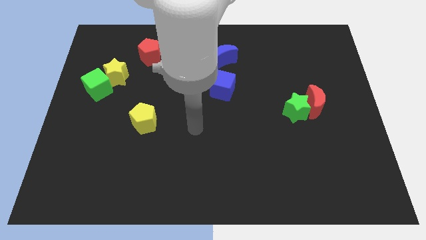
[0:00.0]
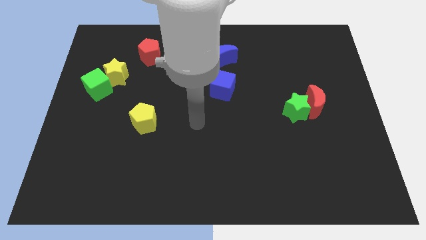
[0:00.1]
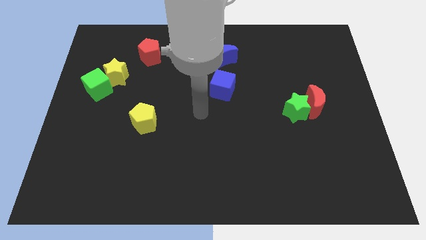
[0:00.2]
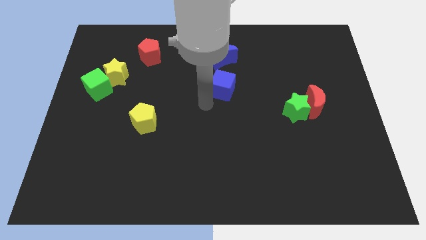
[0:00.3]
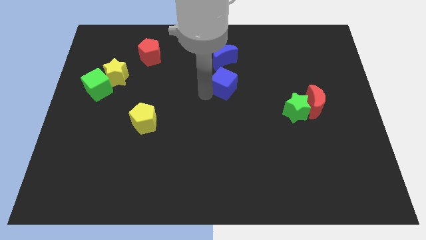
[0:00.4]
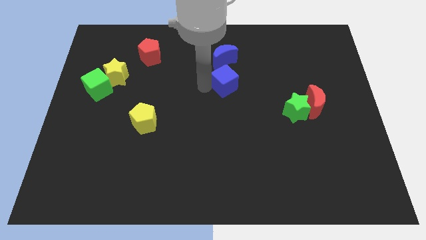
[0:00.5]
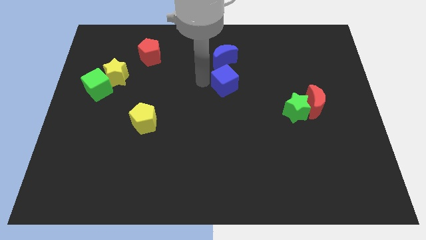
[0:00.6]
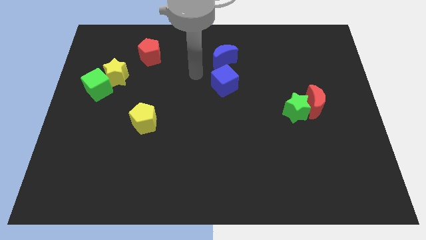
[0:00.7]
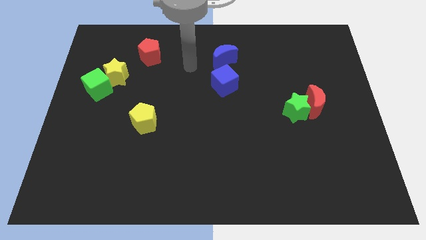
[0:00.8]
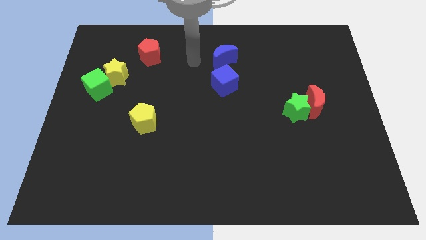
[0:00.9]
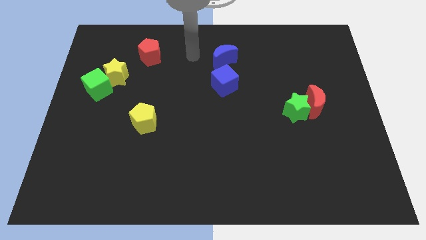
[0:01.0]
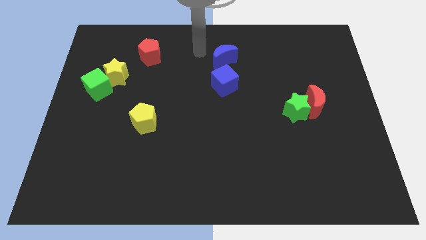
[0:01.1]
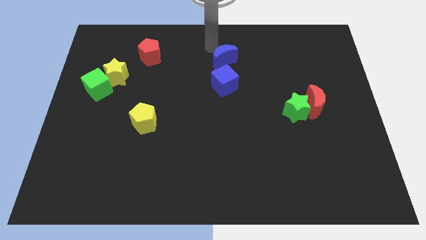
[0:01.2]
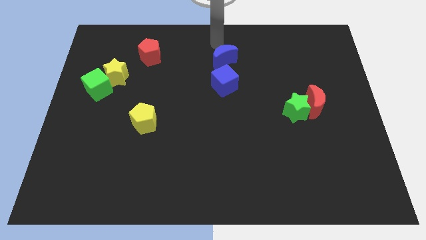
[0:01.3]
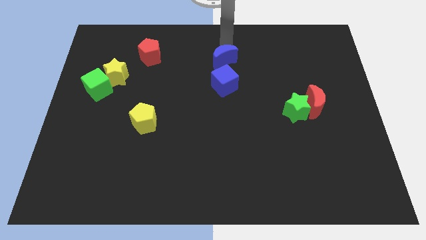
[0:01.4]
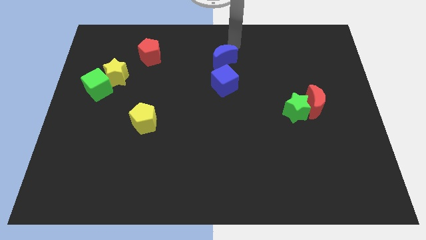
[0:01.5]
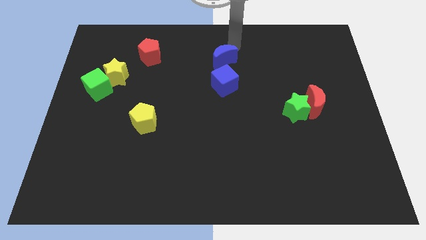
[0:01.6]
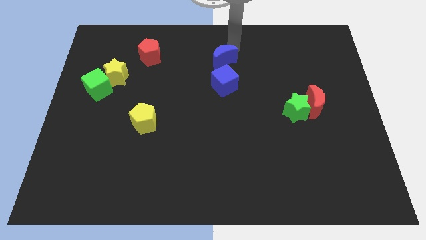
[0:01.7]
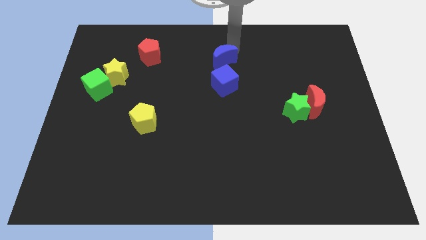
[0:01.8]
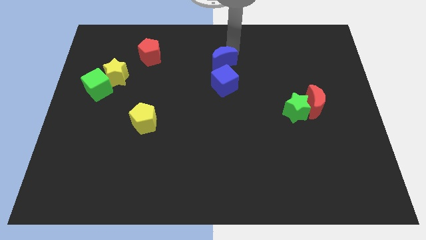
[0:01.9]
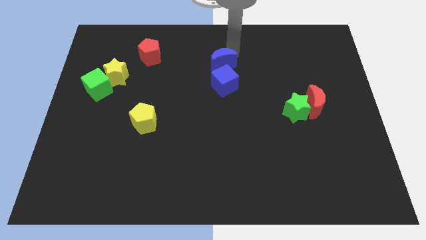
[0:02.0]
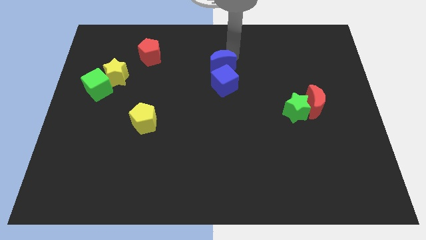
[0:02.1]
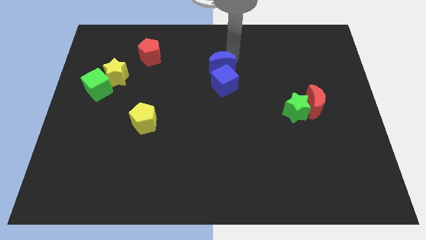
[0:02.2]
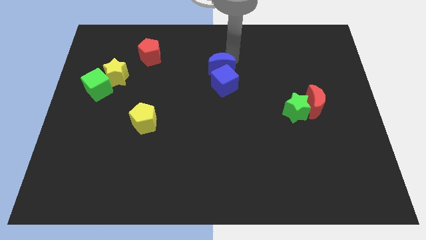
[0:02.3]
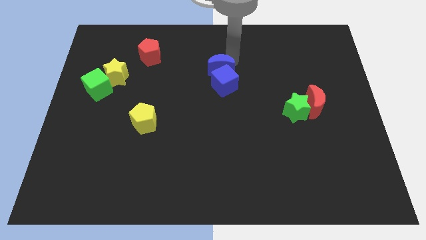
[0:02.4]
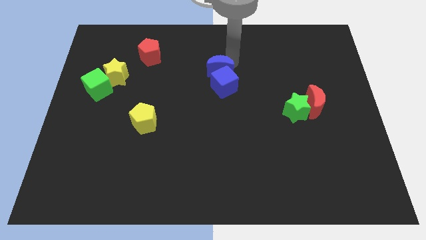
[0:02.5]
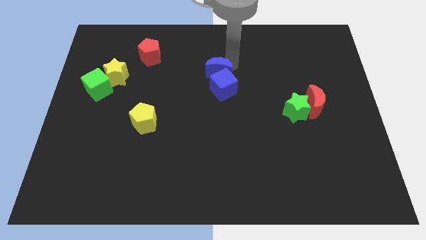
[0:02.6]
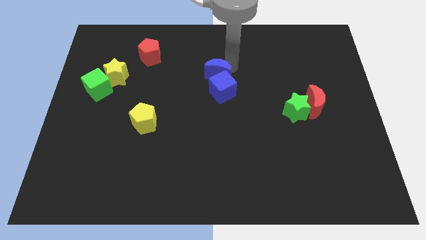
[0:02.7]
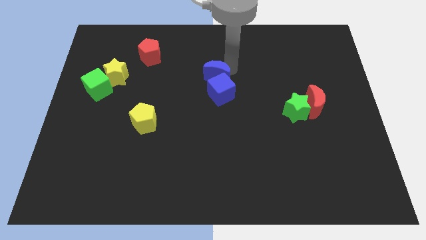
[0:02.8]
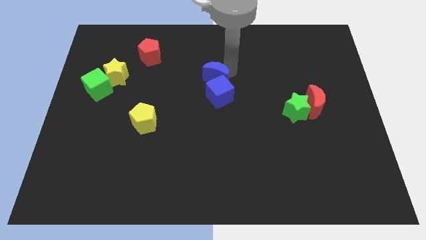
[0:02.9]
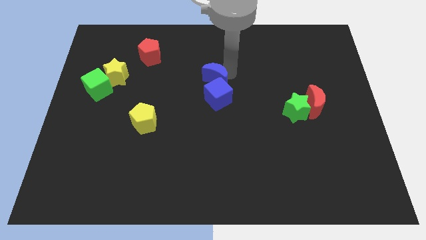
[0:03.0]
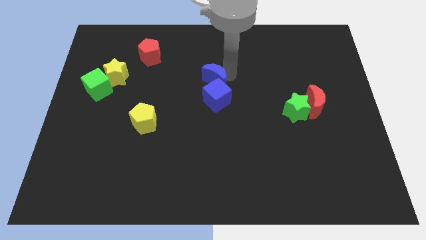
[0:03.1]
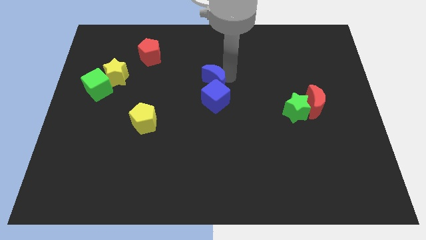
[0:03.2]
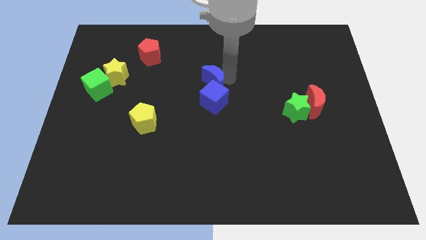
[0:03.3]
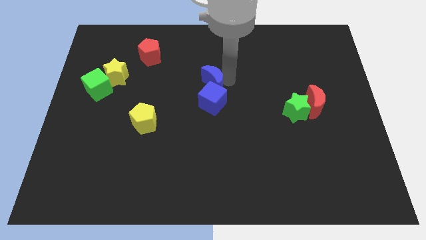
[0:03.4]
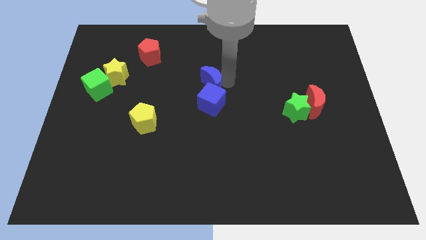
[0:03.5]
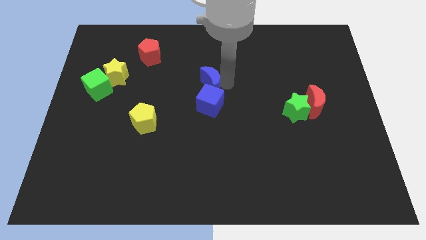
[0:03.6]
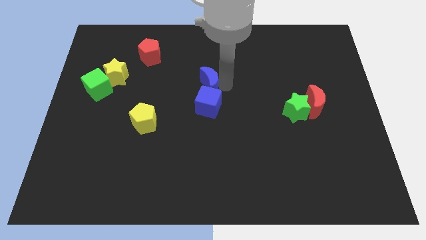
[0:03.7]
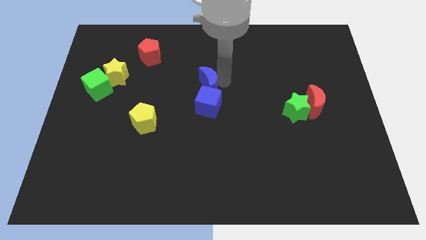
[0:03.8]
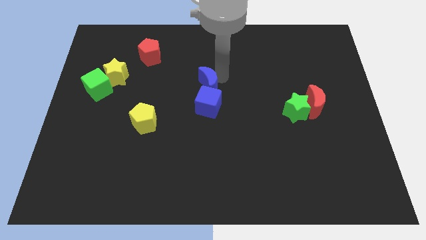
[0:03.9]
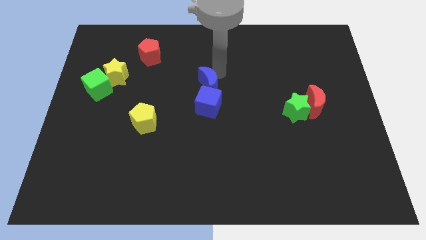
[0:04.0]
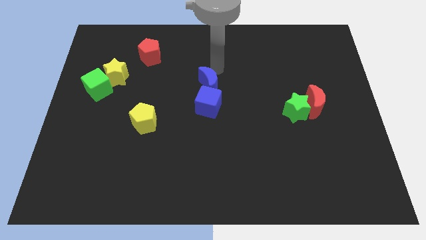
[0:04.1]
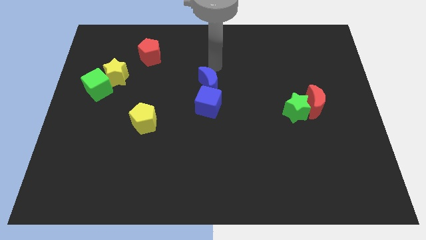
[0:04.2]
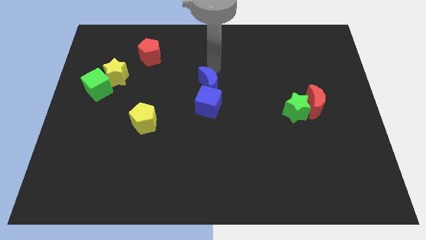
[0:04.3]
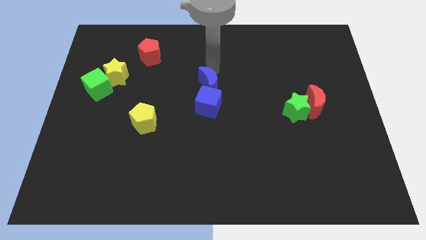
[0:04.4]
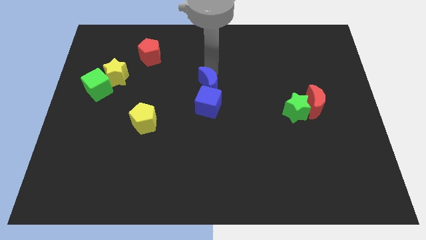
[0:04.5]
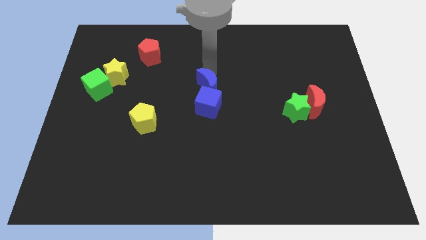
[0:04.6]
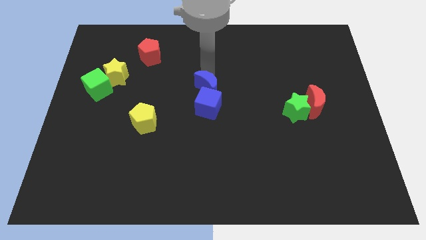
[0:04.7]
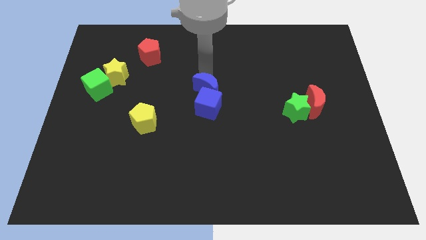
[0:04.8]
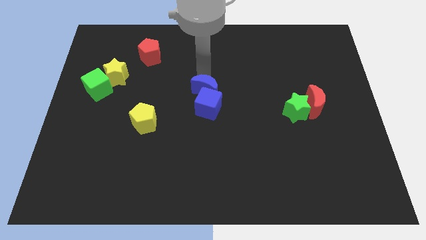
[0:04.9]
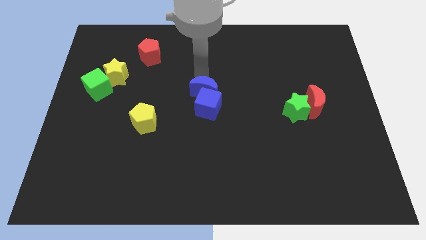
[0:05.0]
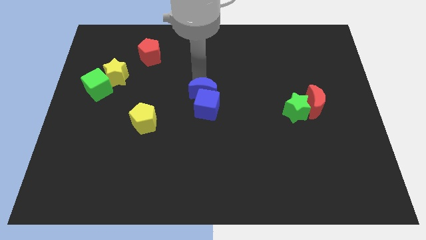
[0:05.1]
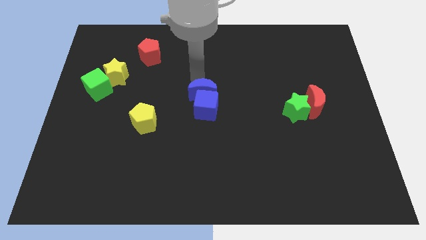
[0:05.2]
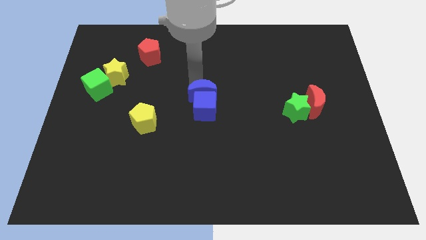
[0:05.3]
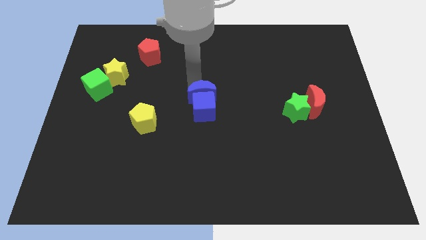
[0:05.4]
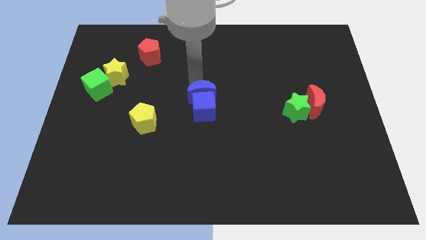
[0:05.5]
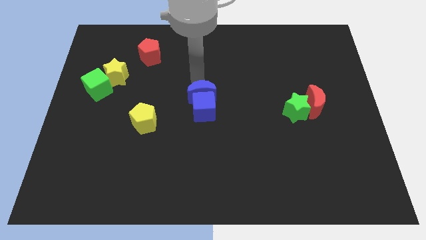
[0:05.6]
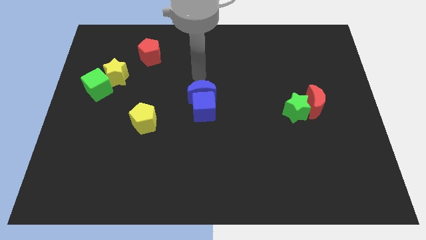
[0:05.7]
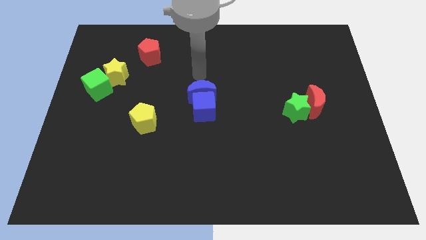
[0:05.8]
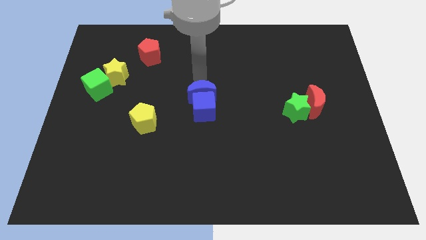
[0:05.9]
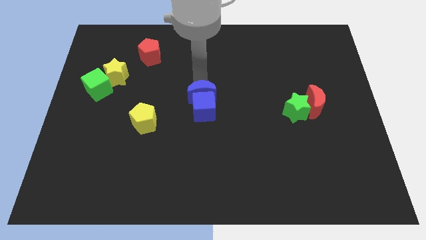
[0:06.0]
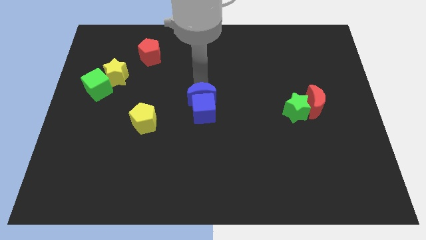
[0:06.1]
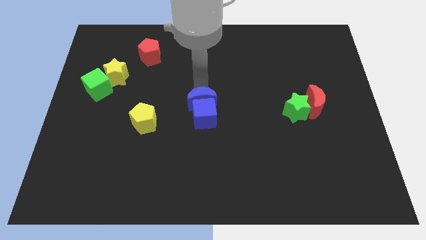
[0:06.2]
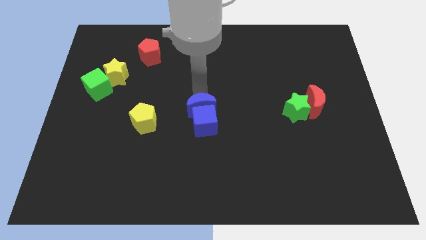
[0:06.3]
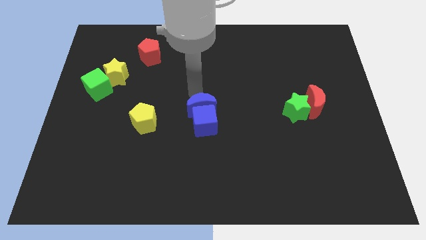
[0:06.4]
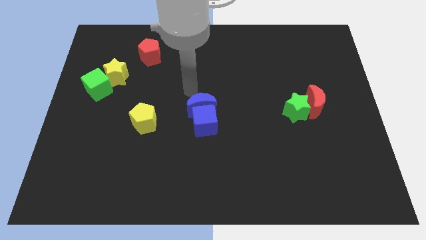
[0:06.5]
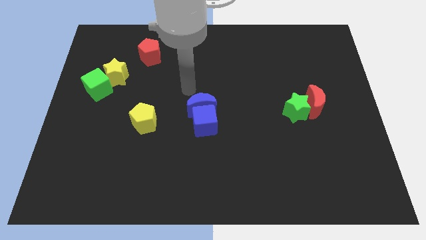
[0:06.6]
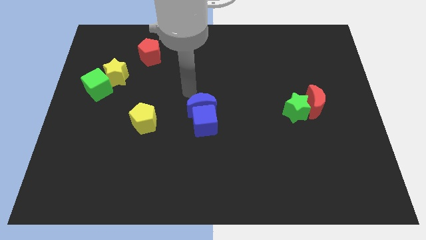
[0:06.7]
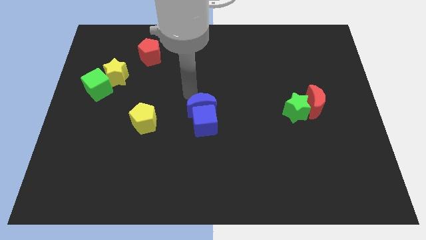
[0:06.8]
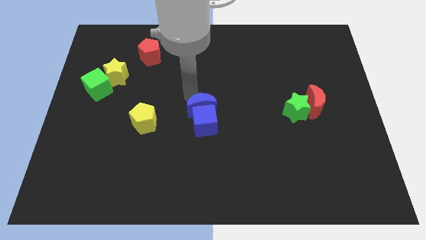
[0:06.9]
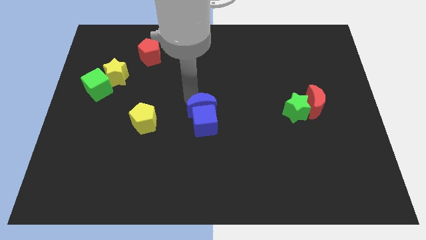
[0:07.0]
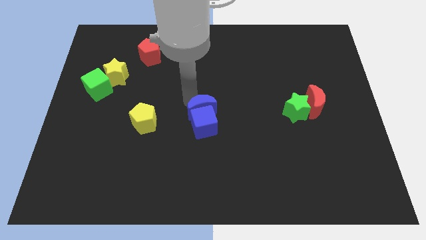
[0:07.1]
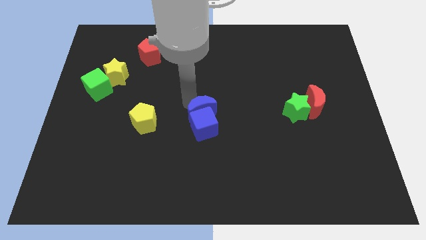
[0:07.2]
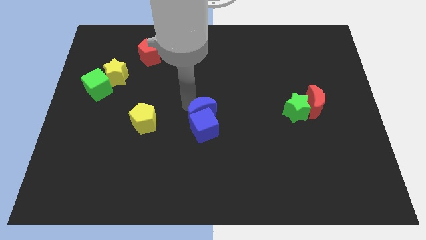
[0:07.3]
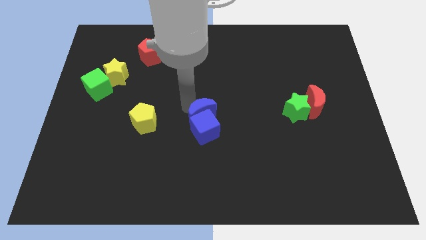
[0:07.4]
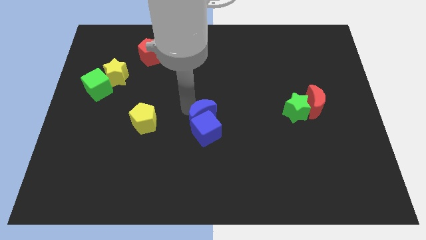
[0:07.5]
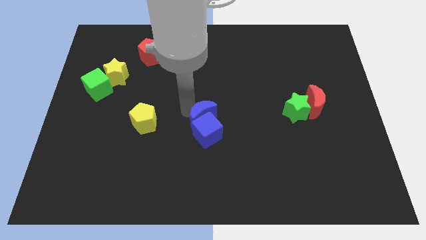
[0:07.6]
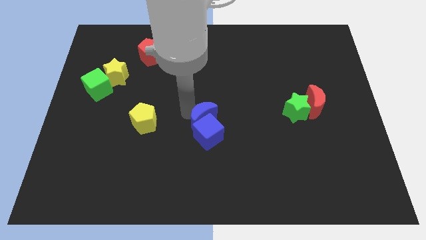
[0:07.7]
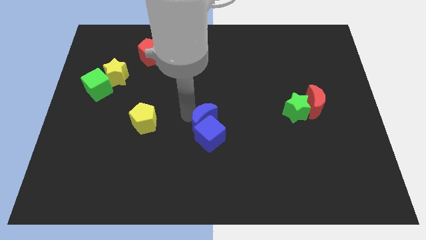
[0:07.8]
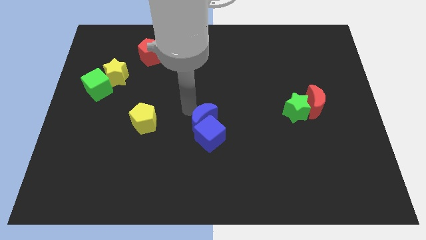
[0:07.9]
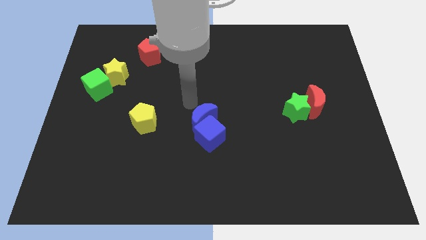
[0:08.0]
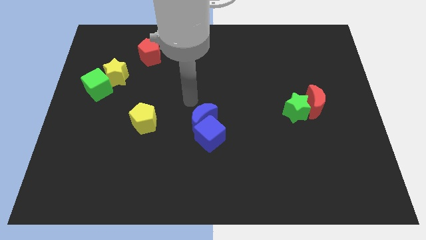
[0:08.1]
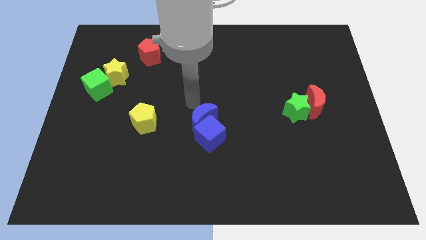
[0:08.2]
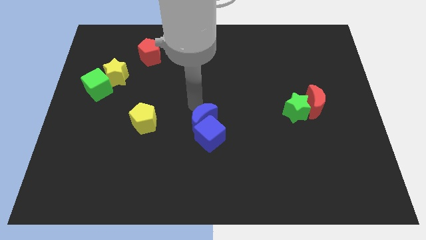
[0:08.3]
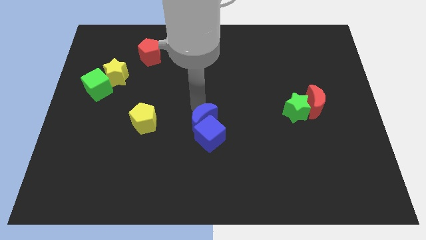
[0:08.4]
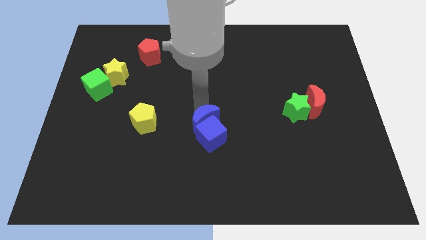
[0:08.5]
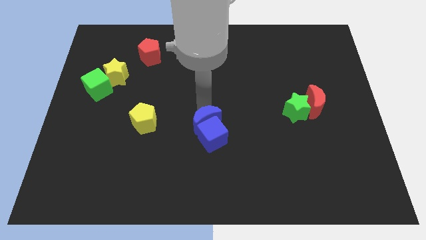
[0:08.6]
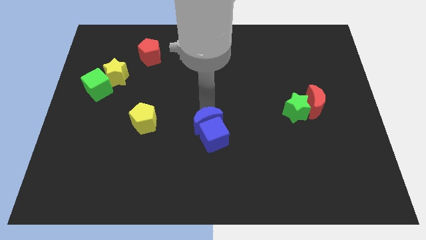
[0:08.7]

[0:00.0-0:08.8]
move the blue moon downwards
